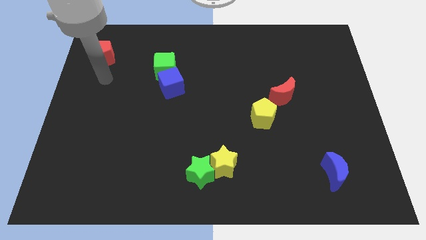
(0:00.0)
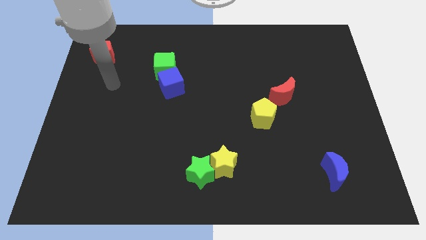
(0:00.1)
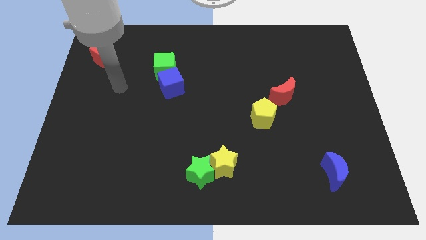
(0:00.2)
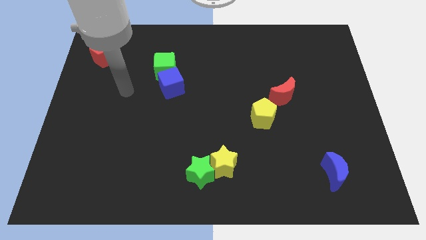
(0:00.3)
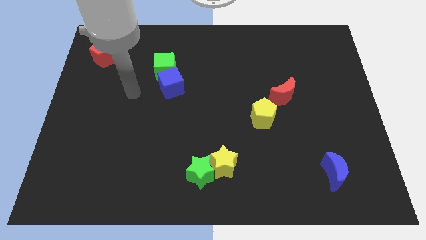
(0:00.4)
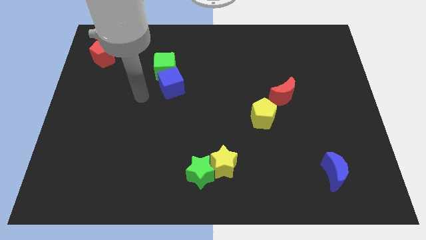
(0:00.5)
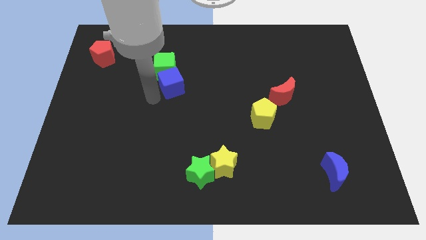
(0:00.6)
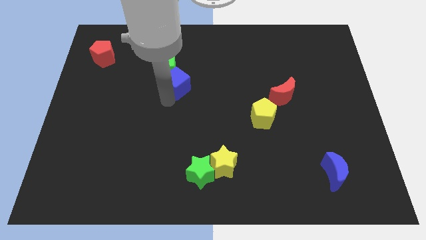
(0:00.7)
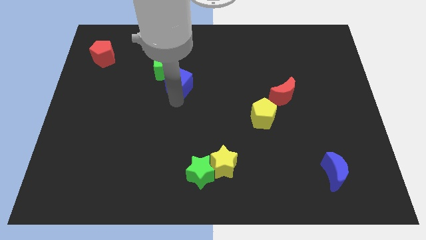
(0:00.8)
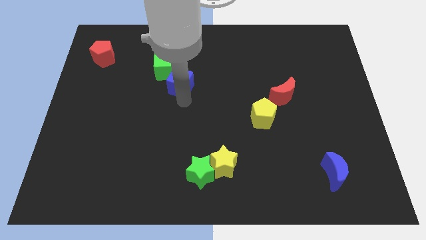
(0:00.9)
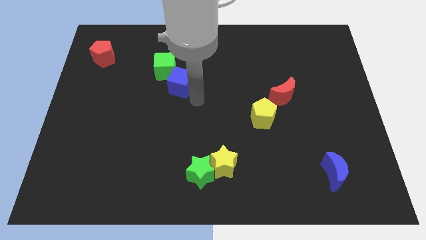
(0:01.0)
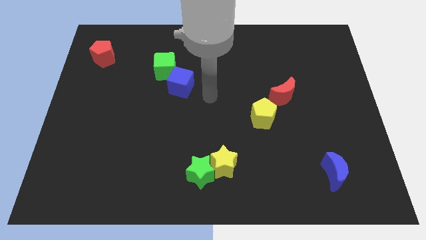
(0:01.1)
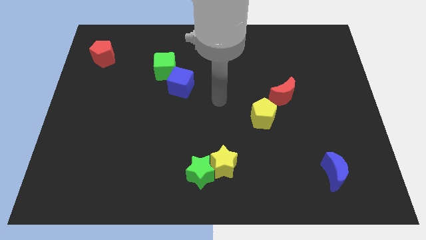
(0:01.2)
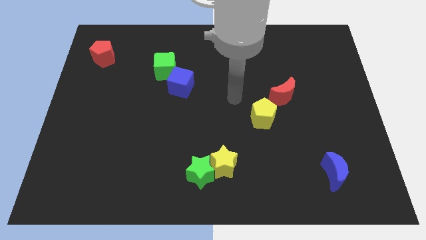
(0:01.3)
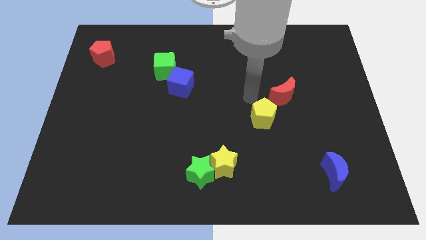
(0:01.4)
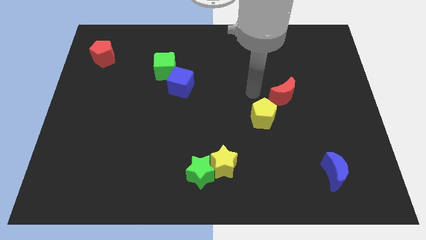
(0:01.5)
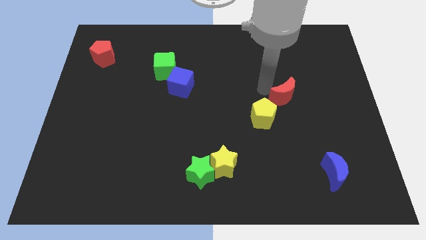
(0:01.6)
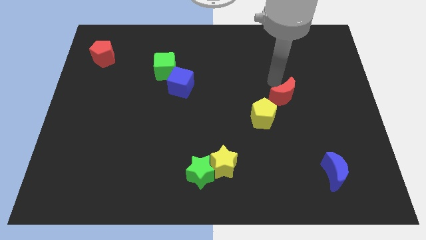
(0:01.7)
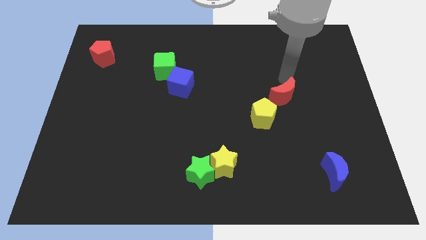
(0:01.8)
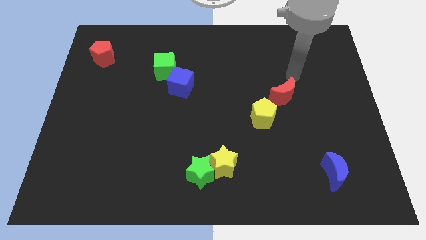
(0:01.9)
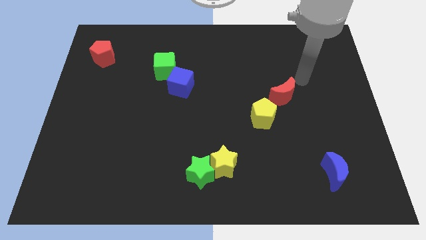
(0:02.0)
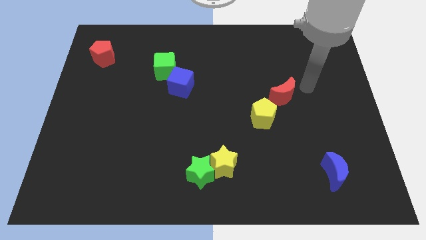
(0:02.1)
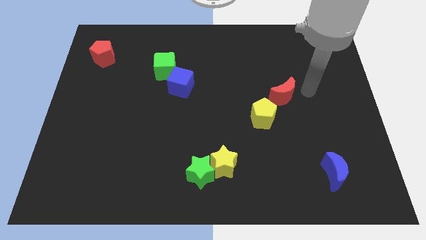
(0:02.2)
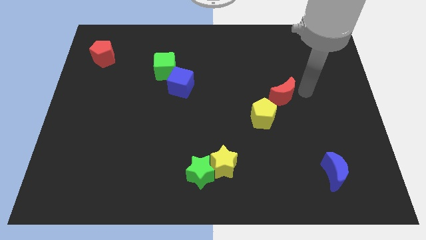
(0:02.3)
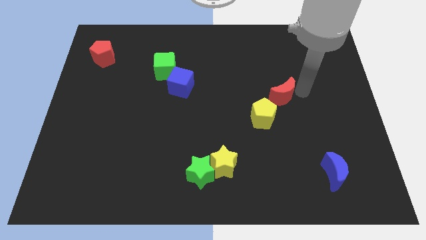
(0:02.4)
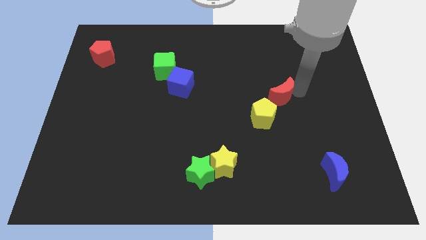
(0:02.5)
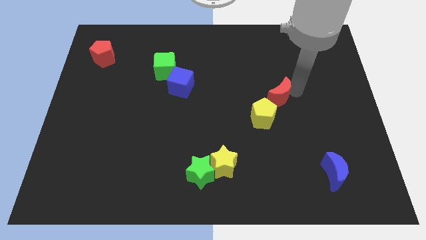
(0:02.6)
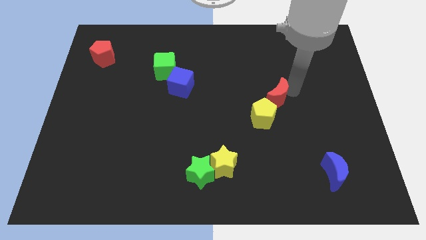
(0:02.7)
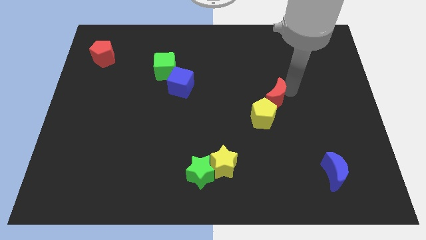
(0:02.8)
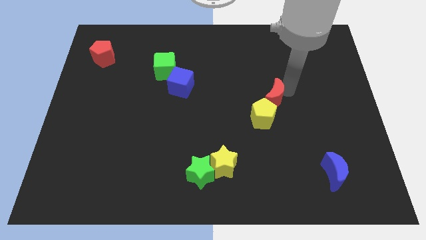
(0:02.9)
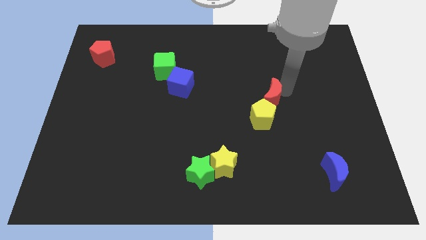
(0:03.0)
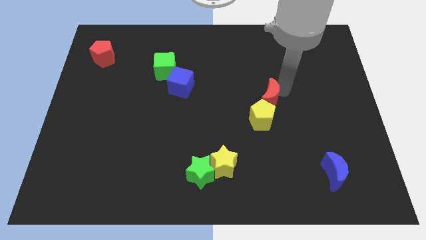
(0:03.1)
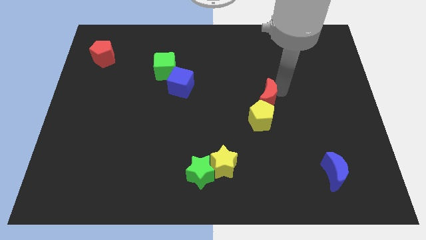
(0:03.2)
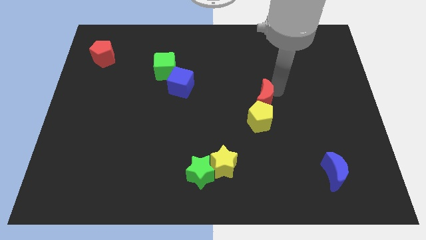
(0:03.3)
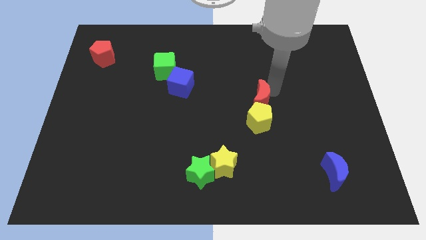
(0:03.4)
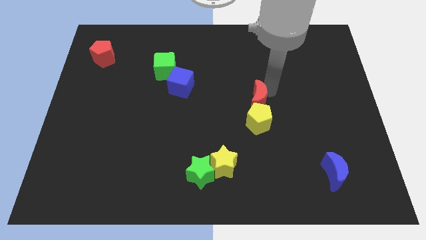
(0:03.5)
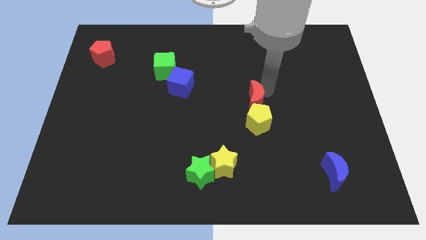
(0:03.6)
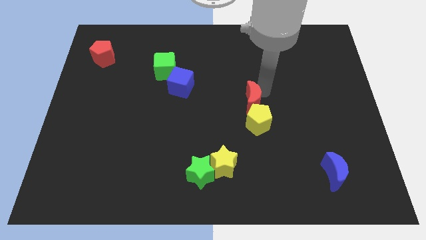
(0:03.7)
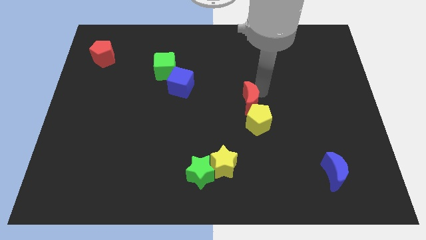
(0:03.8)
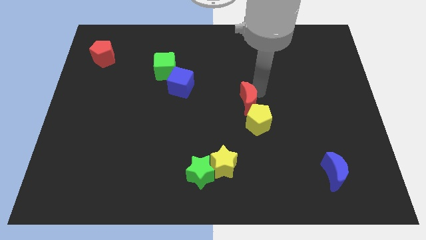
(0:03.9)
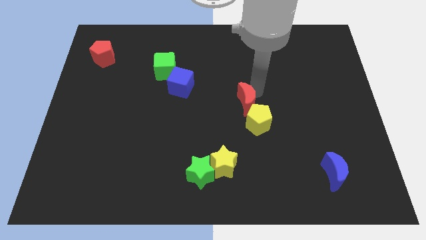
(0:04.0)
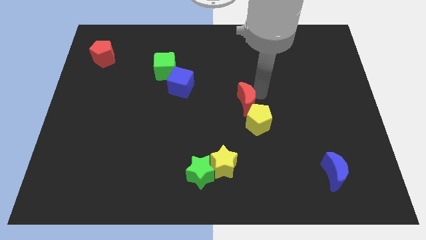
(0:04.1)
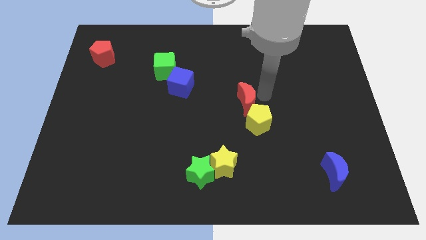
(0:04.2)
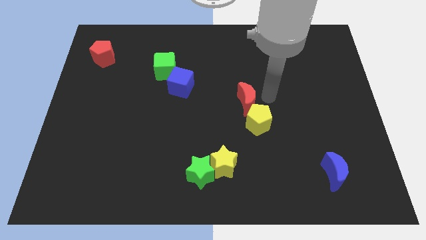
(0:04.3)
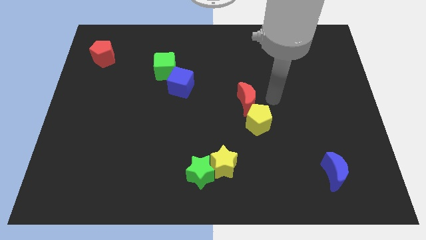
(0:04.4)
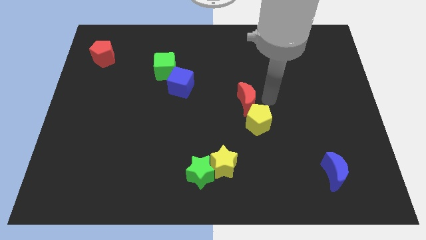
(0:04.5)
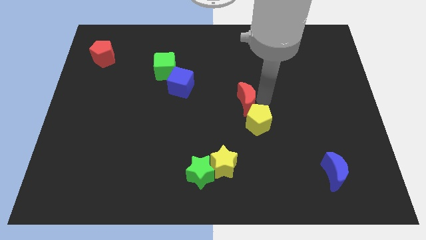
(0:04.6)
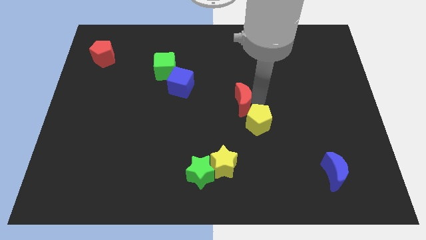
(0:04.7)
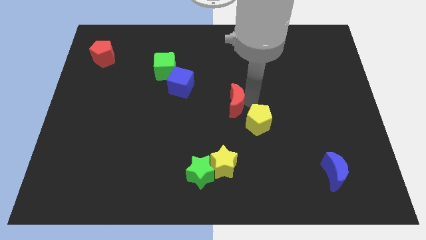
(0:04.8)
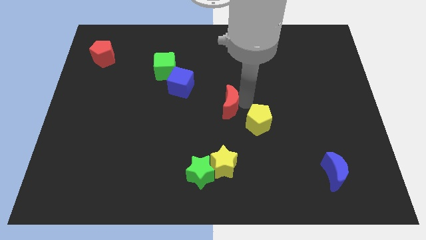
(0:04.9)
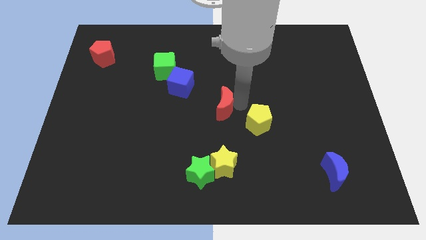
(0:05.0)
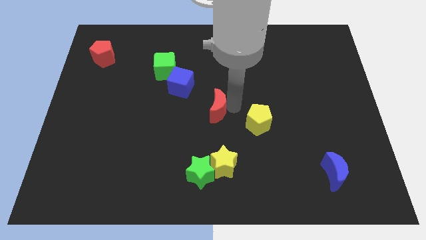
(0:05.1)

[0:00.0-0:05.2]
move the red moon to the bottom right side of the blue cube

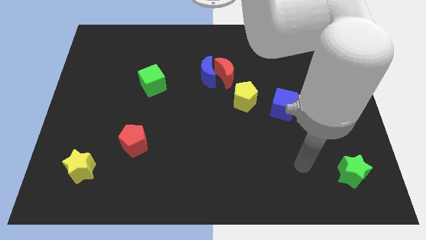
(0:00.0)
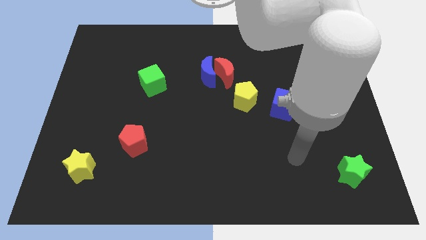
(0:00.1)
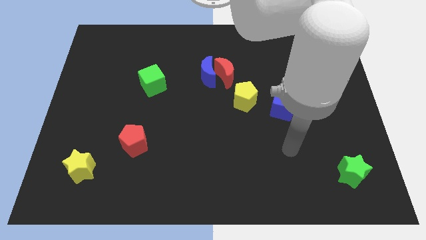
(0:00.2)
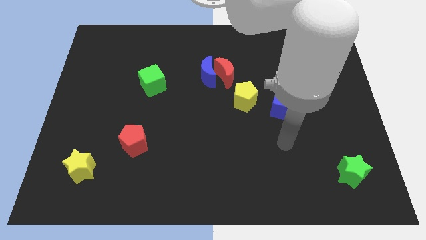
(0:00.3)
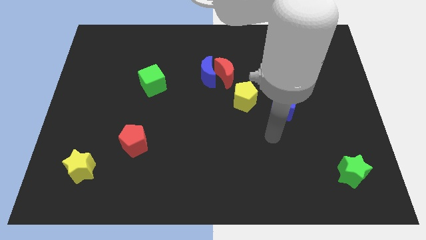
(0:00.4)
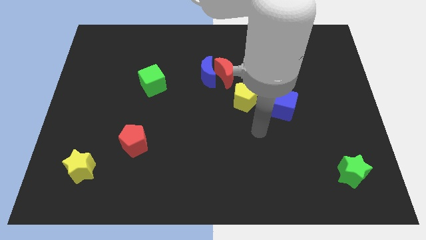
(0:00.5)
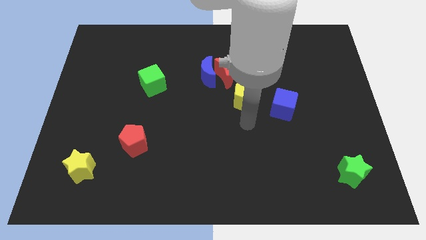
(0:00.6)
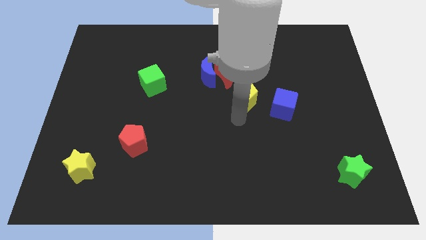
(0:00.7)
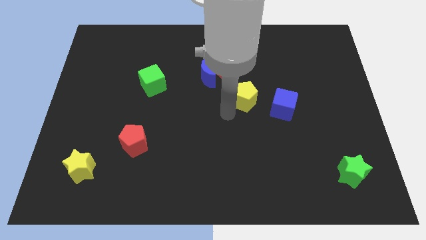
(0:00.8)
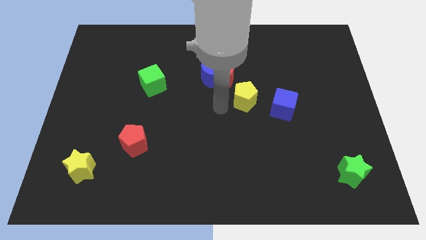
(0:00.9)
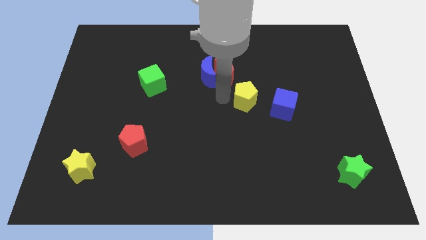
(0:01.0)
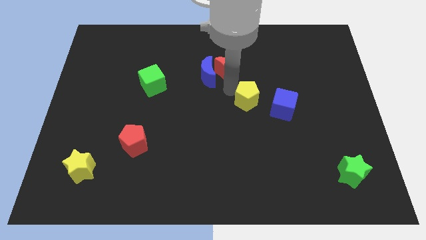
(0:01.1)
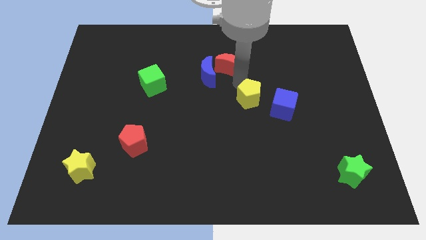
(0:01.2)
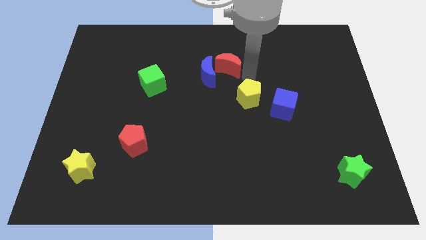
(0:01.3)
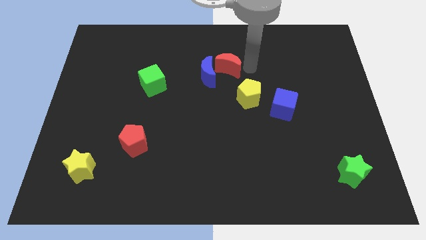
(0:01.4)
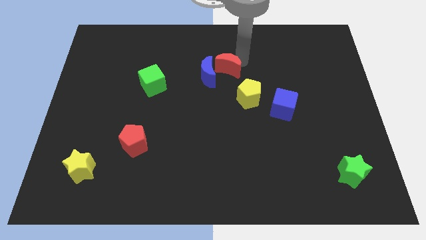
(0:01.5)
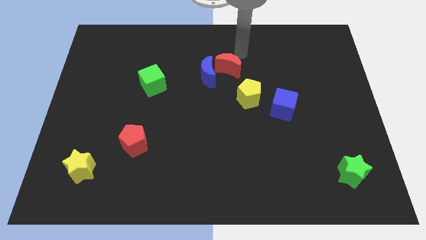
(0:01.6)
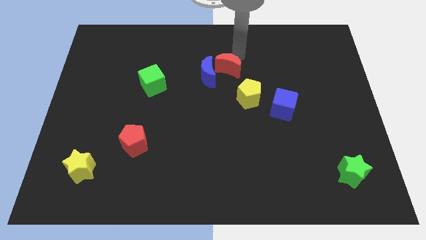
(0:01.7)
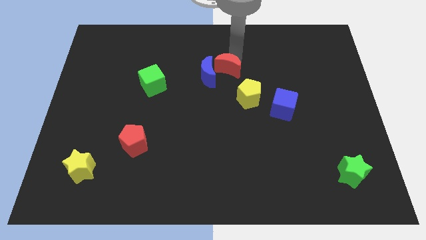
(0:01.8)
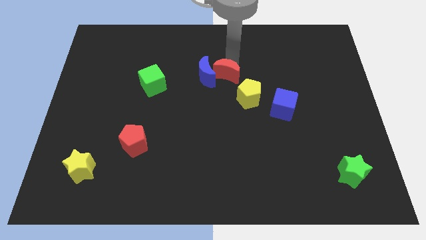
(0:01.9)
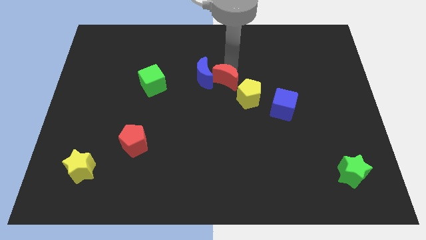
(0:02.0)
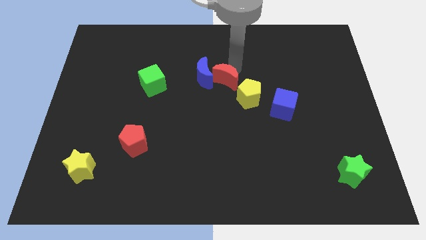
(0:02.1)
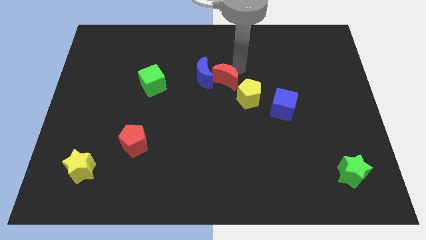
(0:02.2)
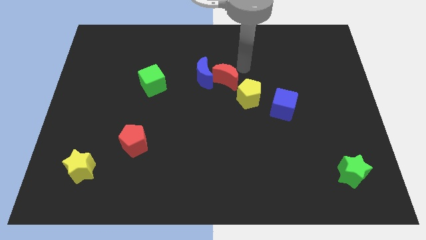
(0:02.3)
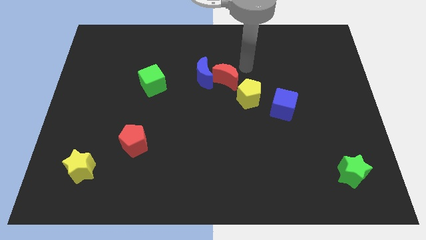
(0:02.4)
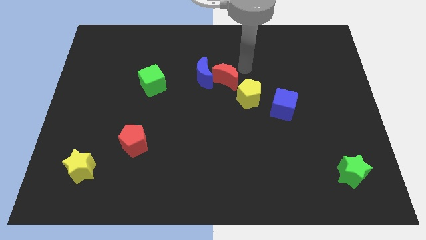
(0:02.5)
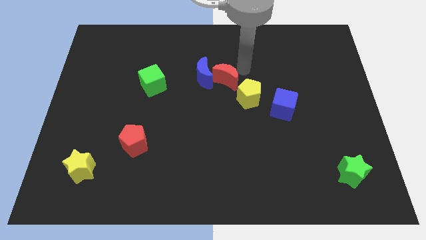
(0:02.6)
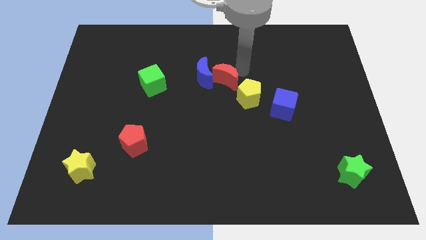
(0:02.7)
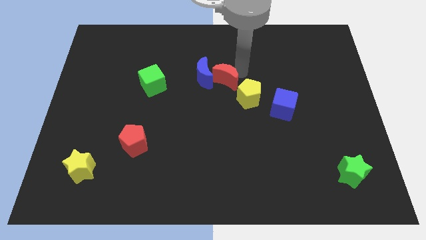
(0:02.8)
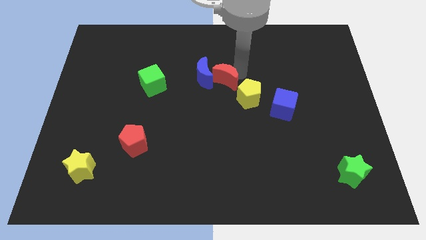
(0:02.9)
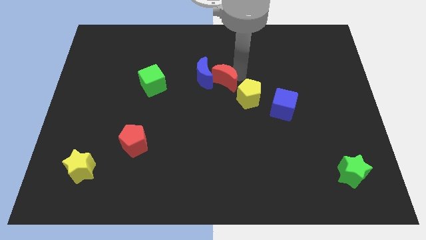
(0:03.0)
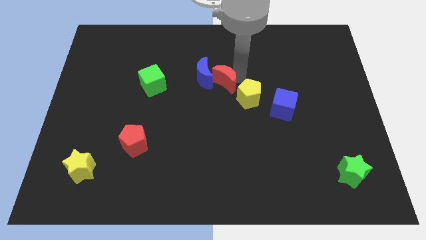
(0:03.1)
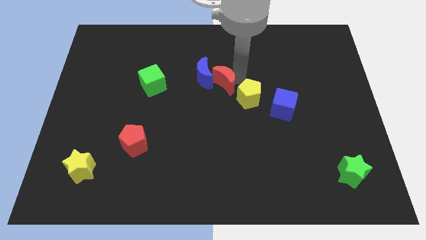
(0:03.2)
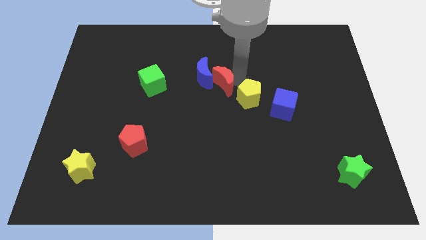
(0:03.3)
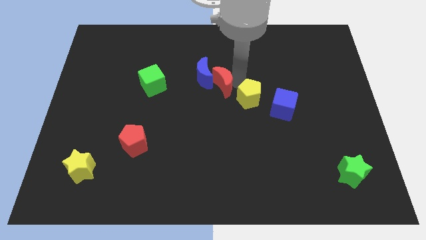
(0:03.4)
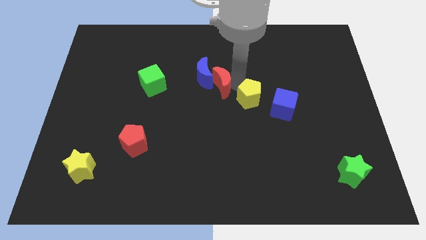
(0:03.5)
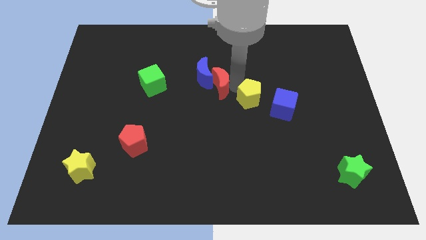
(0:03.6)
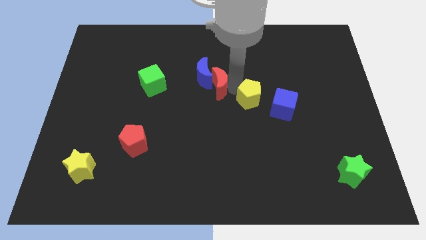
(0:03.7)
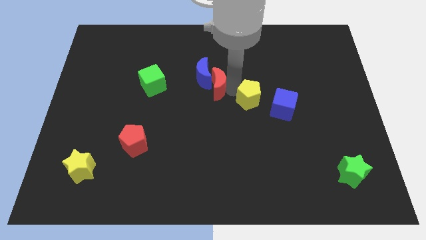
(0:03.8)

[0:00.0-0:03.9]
put the red moon to the right of the green cube
